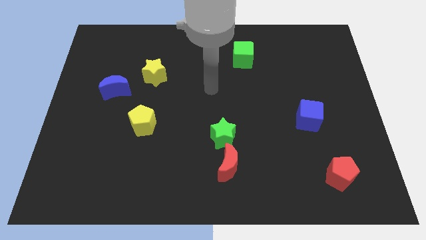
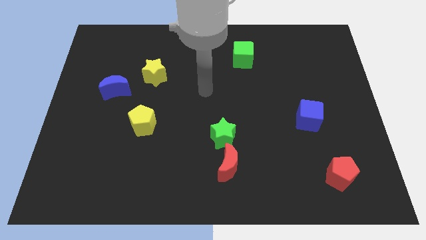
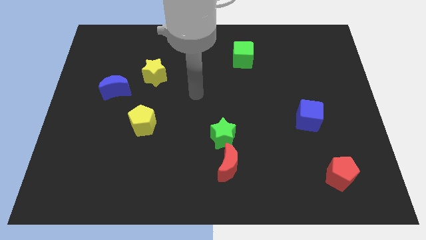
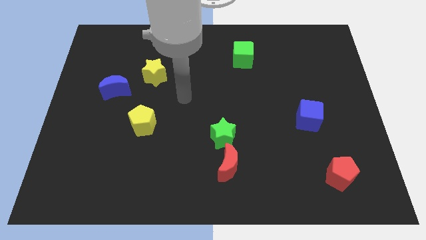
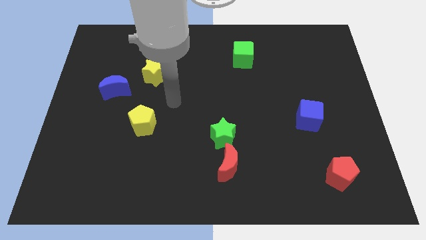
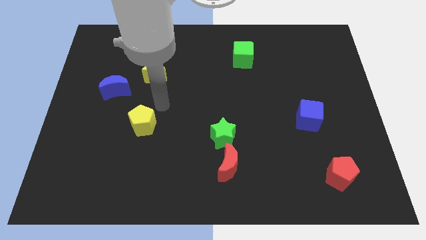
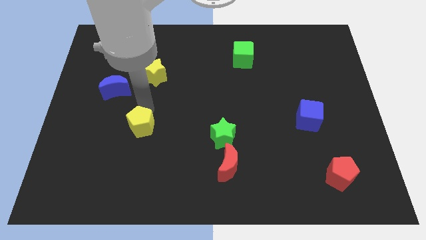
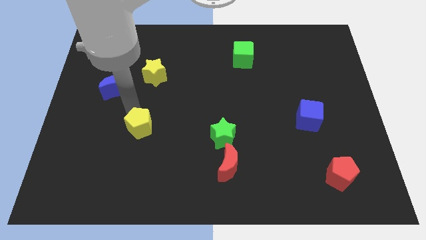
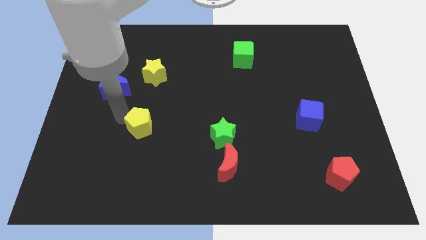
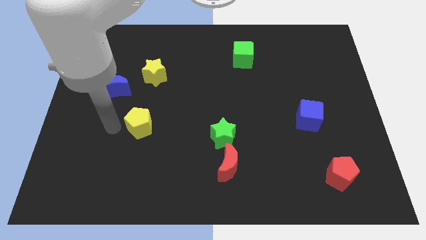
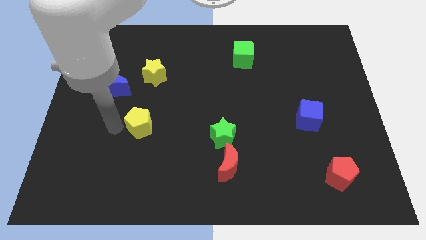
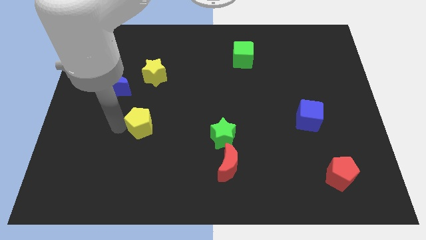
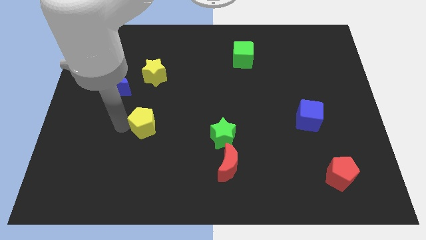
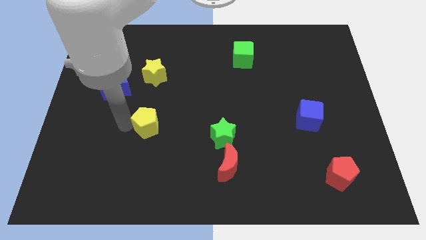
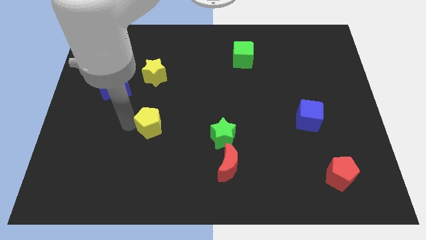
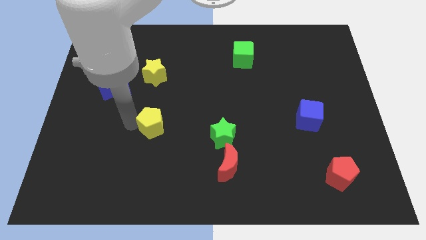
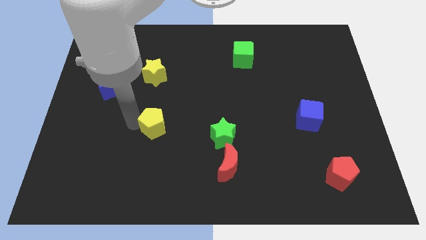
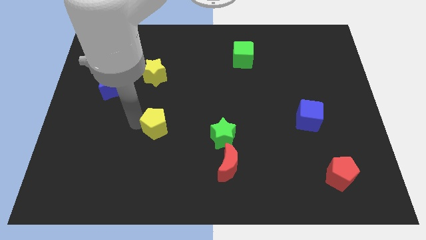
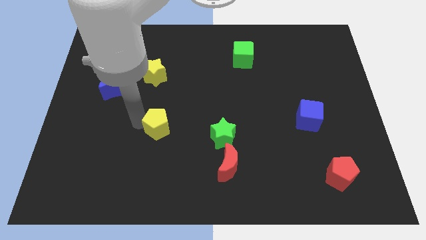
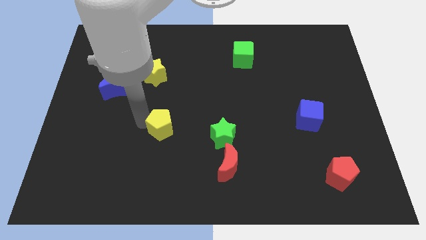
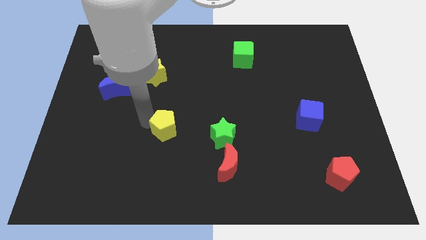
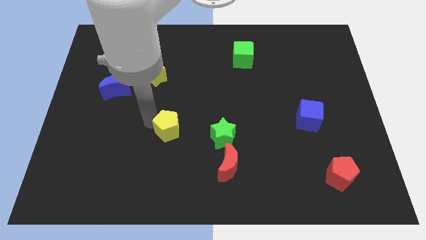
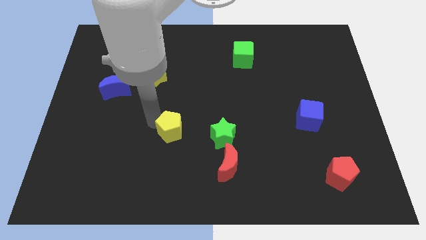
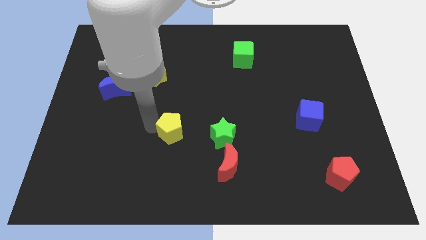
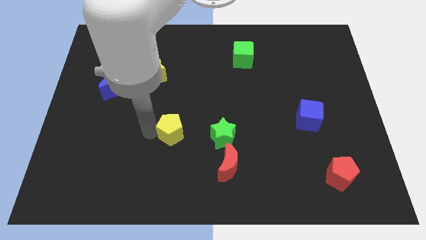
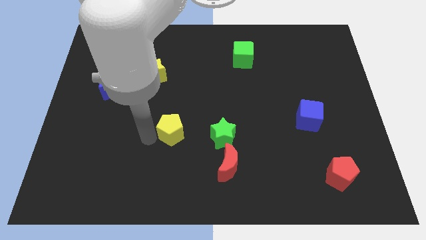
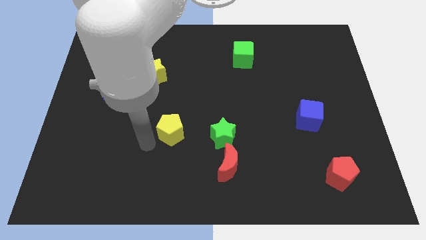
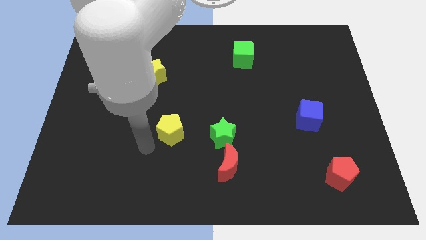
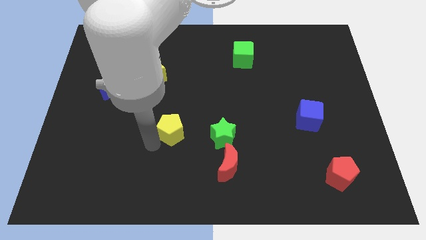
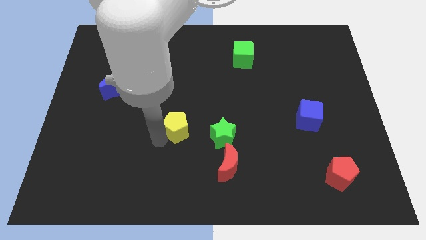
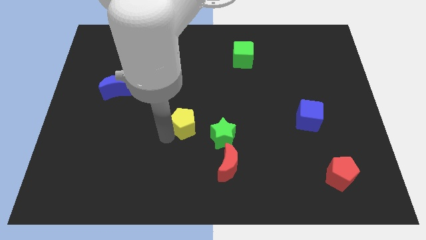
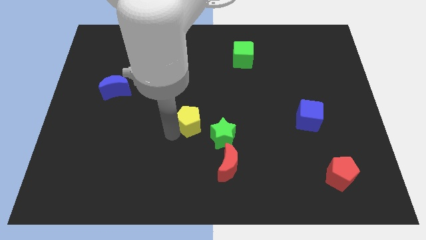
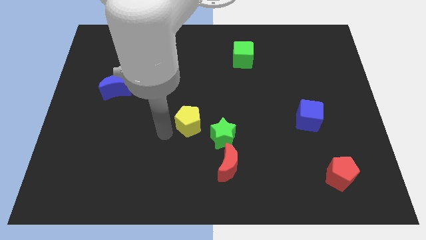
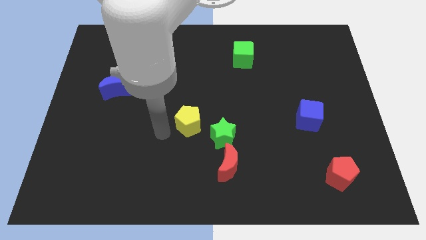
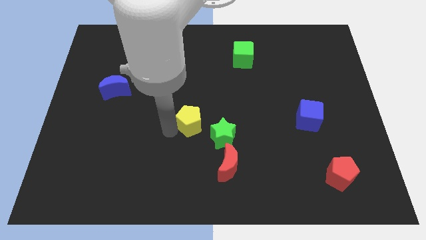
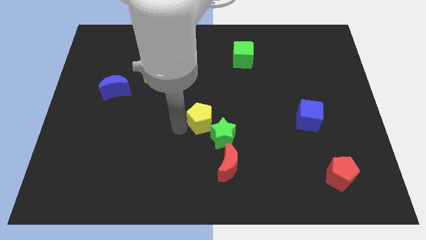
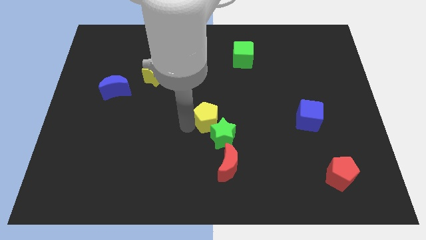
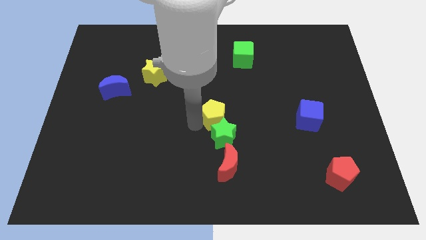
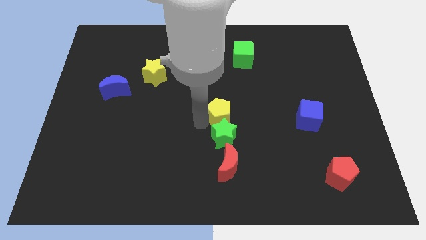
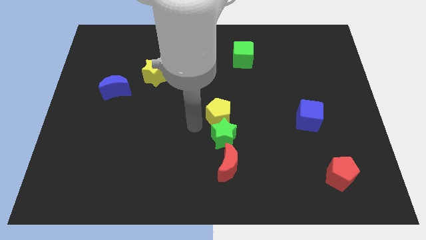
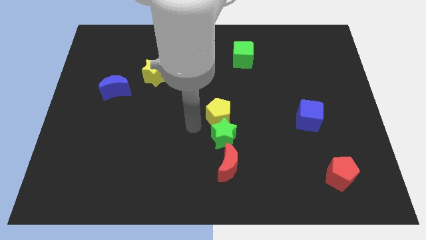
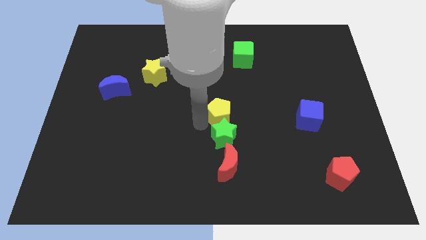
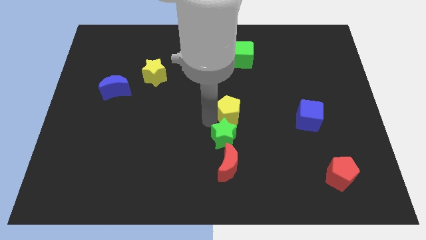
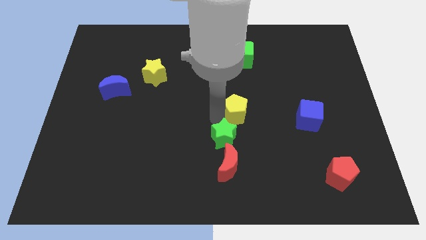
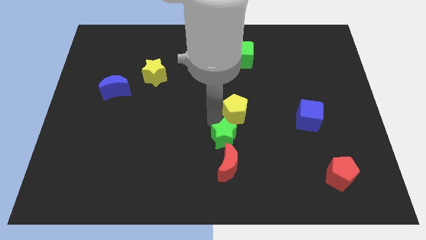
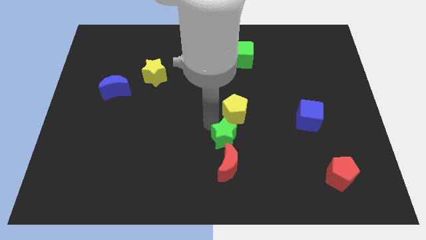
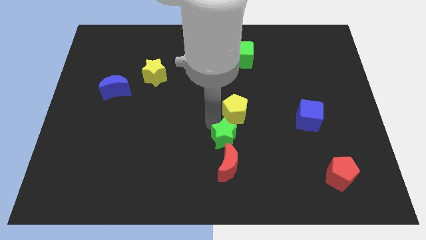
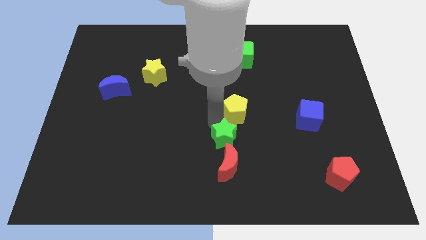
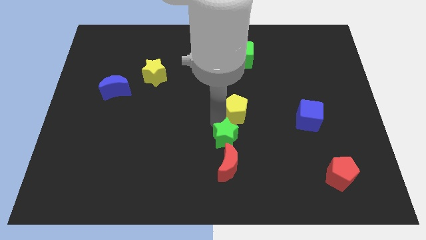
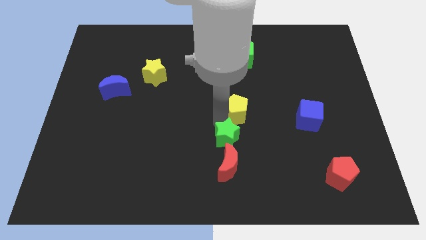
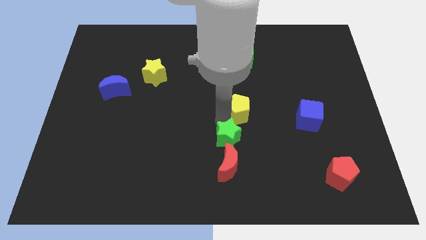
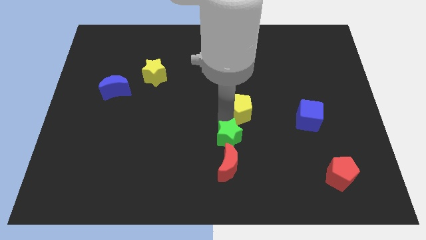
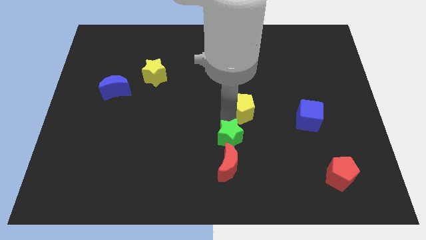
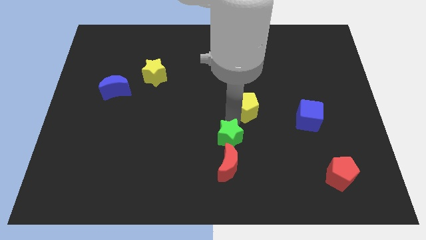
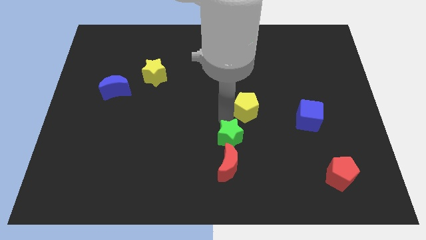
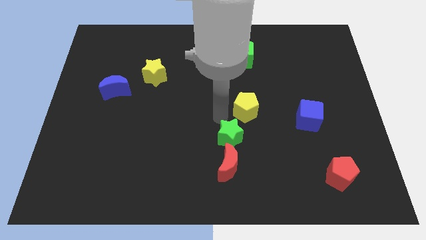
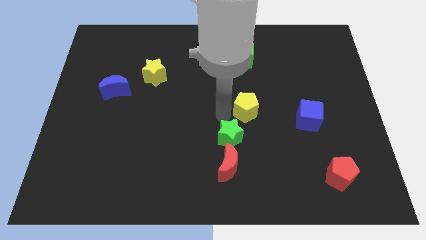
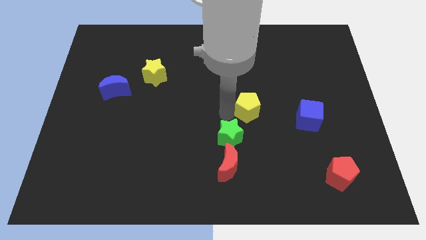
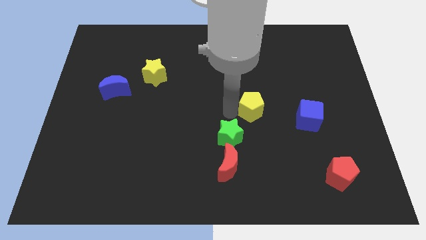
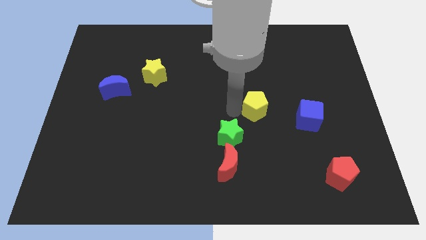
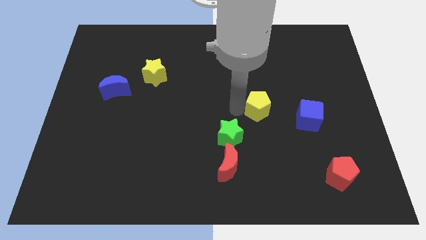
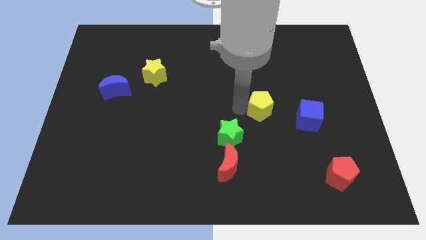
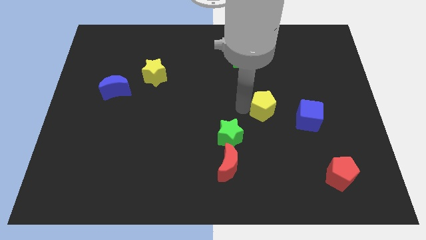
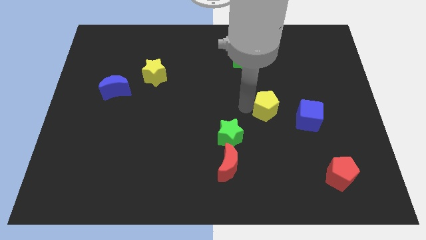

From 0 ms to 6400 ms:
move the yellow pentagon diagonally up and to the left of the blue cube

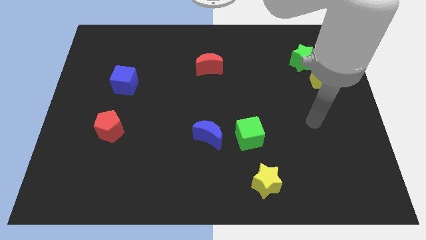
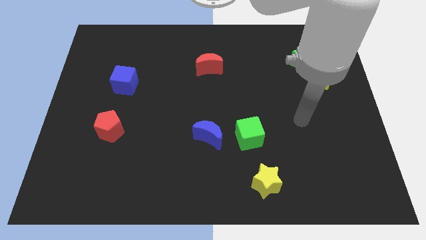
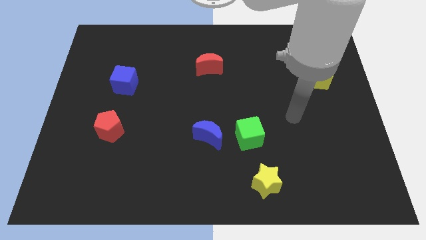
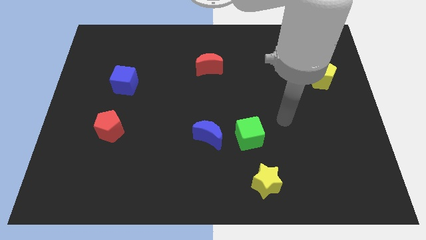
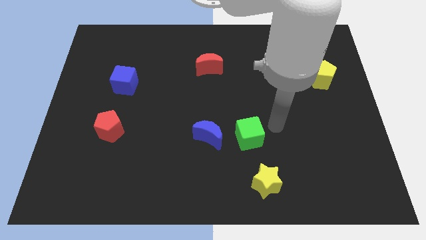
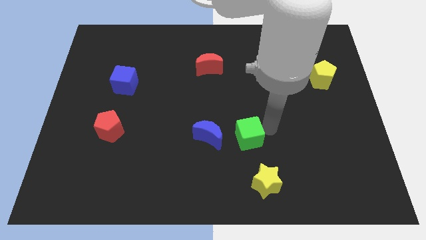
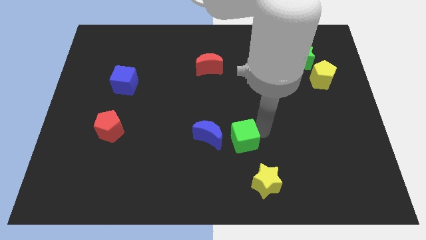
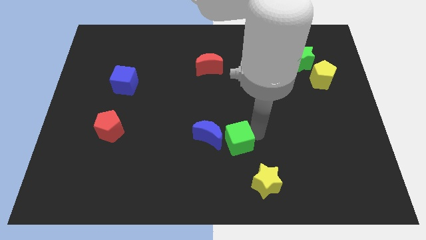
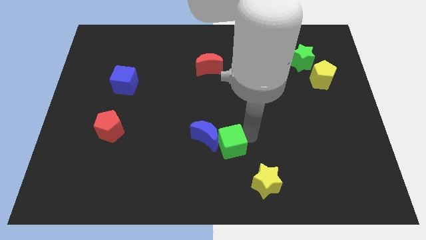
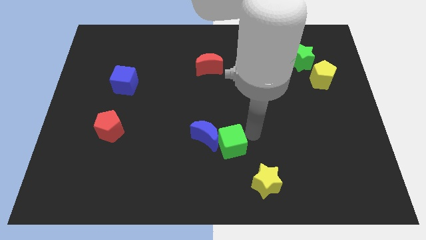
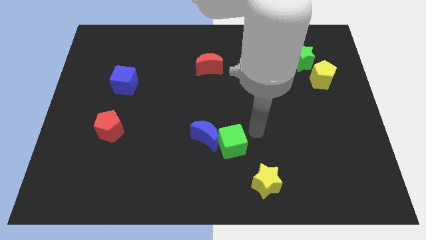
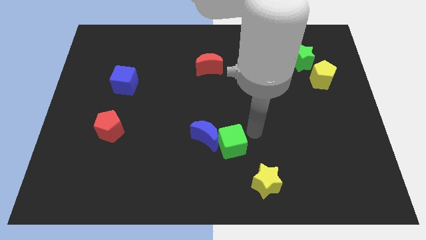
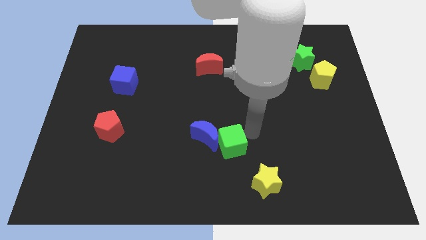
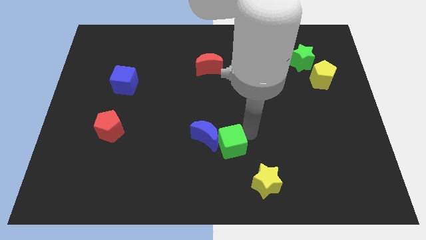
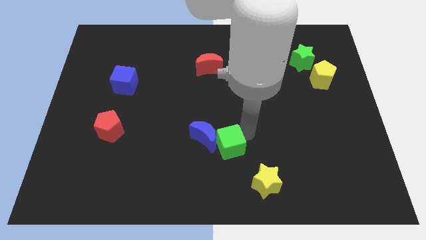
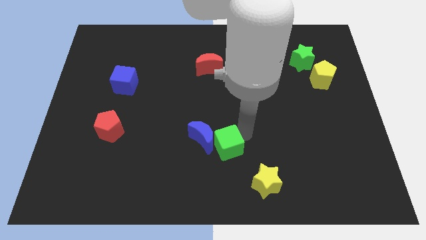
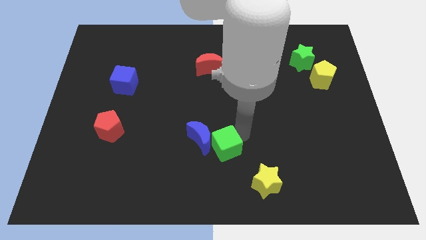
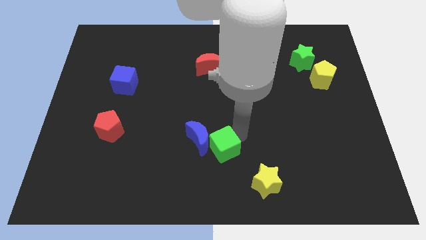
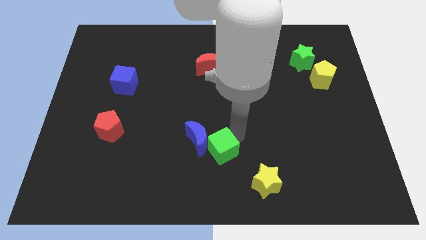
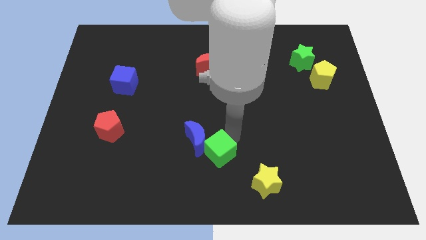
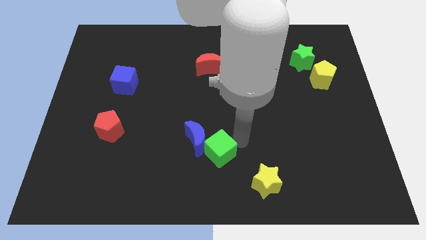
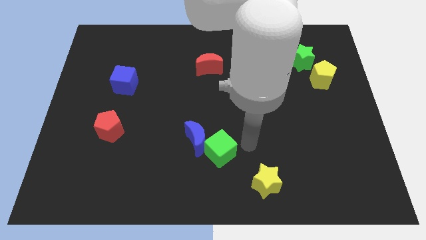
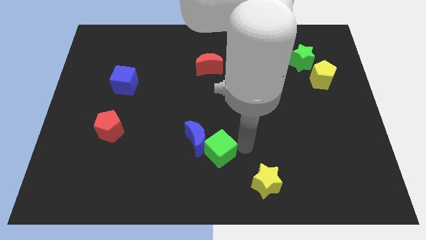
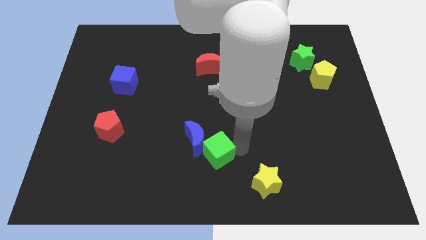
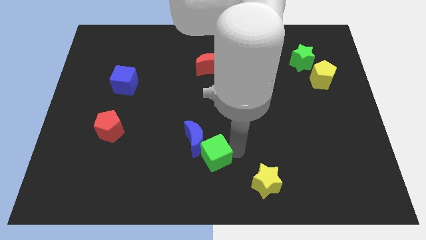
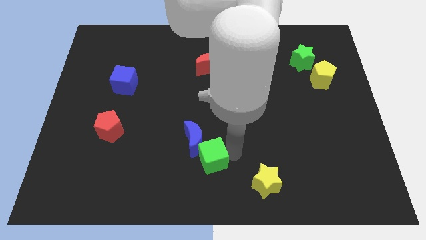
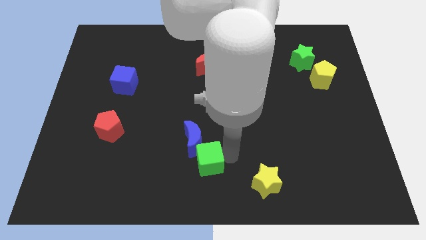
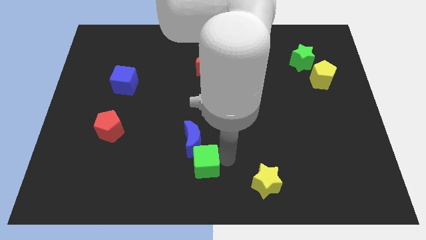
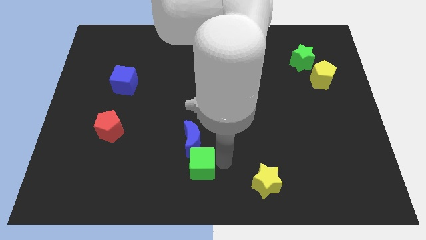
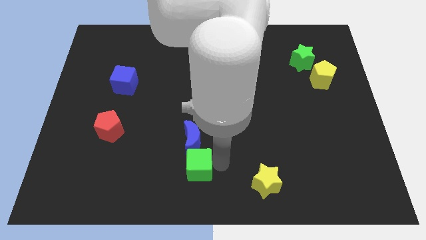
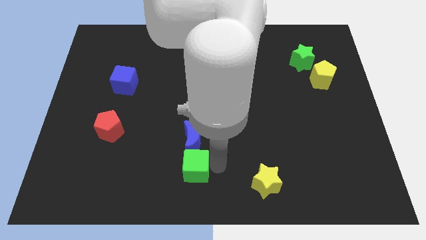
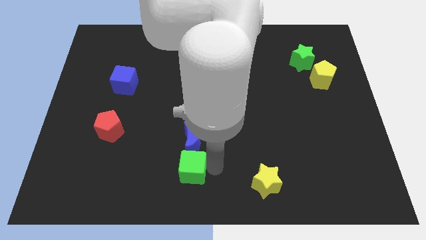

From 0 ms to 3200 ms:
push the green cube to the bottom left side of the blue moon
